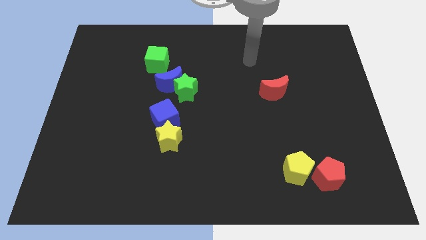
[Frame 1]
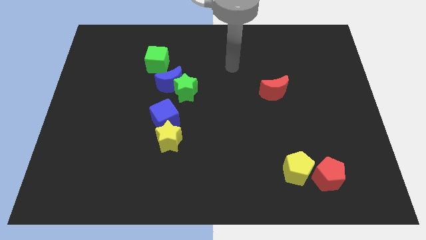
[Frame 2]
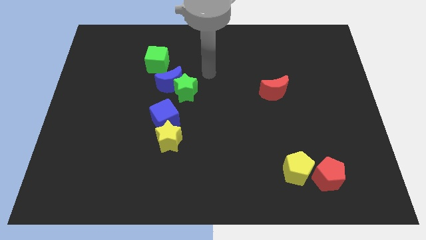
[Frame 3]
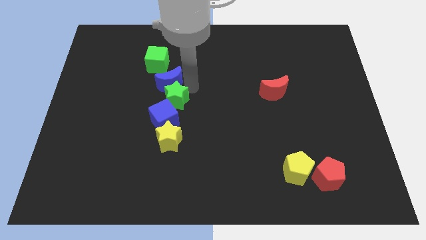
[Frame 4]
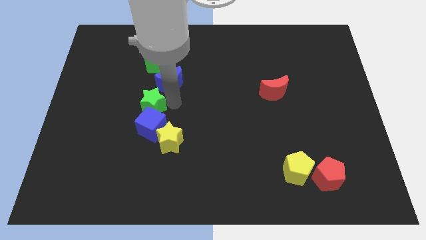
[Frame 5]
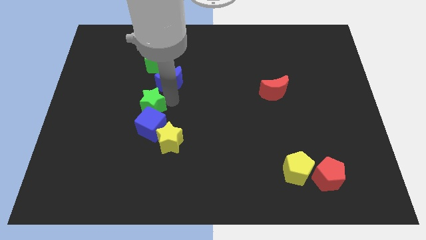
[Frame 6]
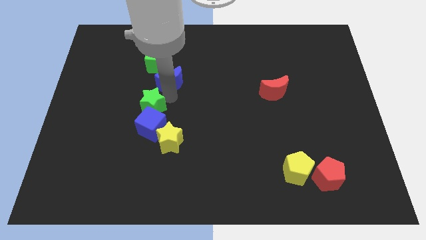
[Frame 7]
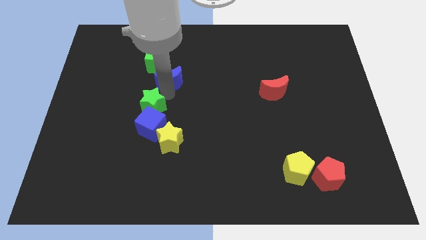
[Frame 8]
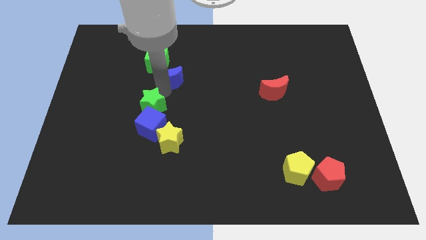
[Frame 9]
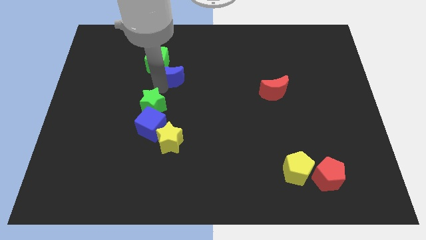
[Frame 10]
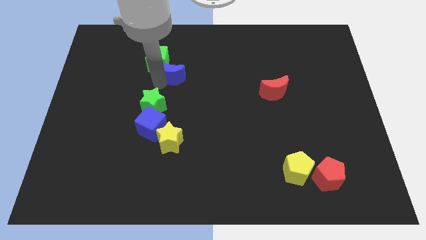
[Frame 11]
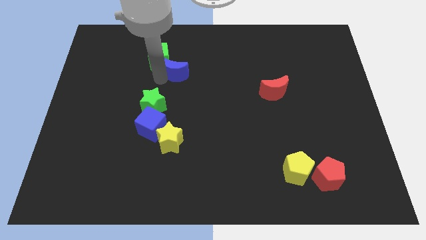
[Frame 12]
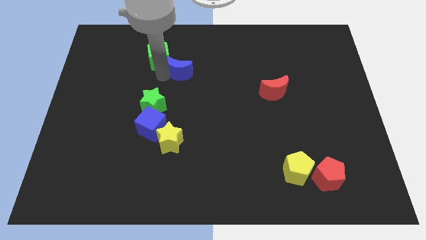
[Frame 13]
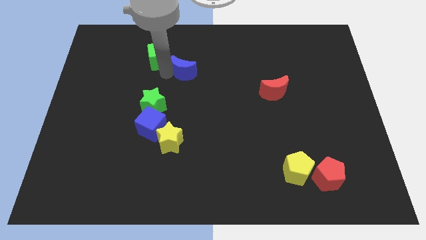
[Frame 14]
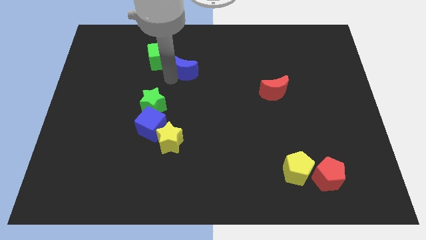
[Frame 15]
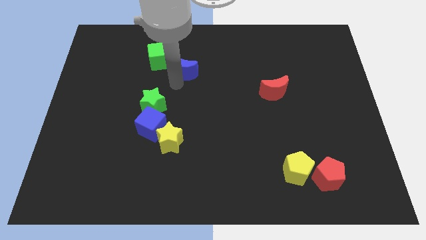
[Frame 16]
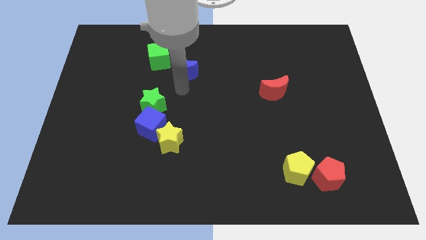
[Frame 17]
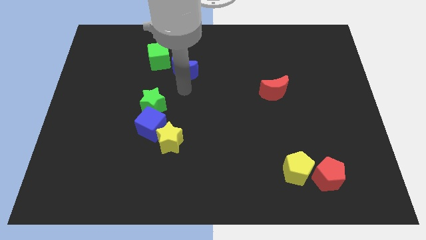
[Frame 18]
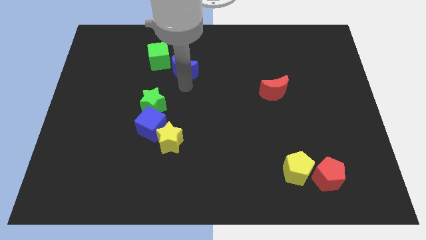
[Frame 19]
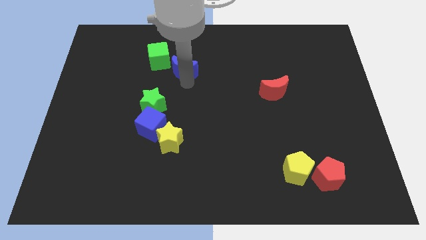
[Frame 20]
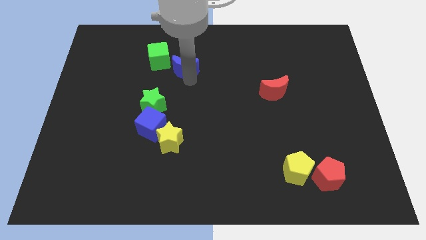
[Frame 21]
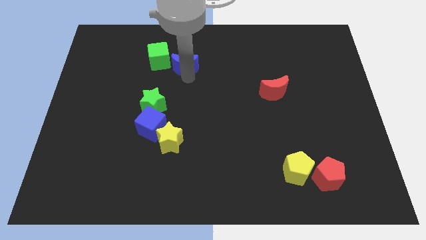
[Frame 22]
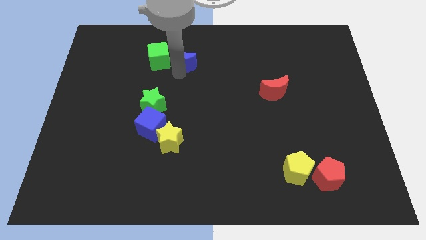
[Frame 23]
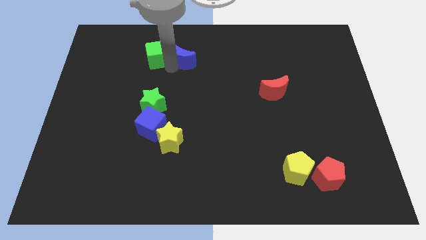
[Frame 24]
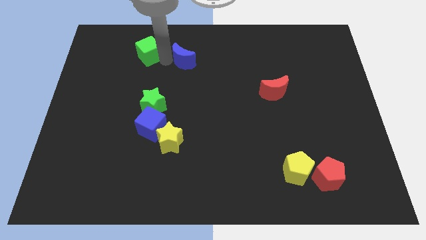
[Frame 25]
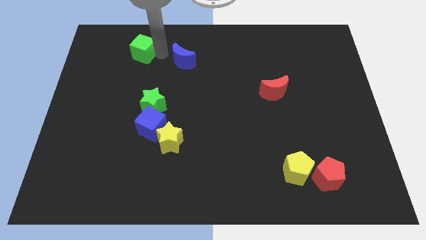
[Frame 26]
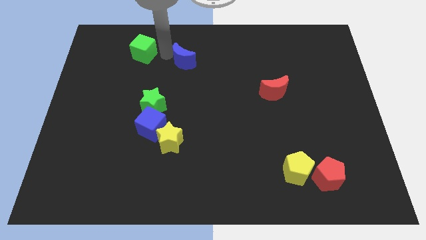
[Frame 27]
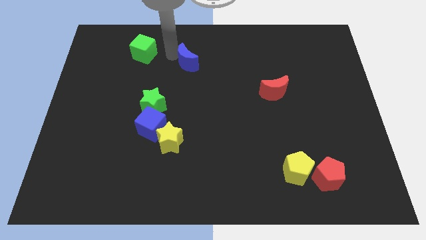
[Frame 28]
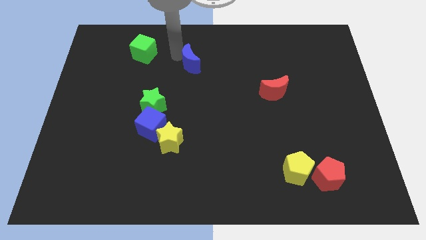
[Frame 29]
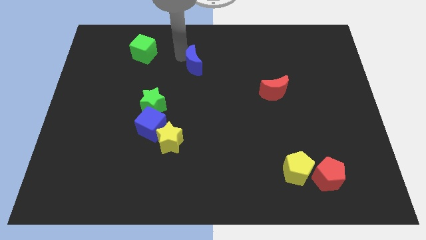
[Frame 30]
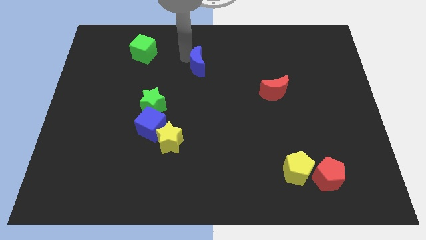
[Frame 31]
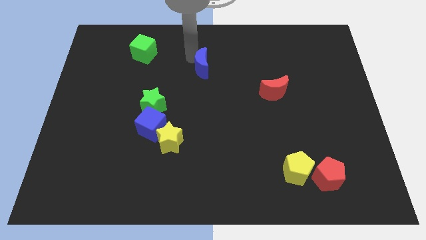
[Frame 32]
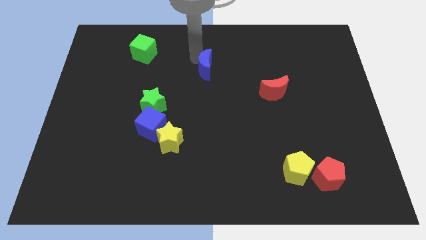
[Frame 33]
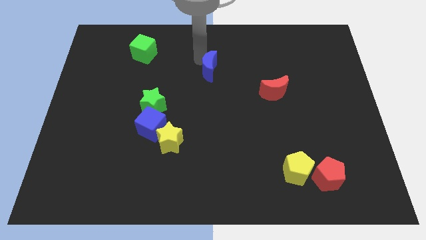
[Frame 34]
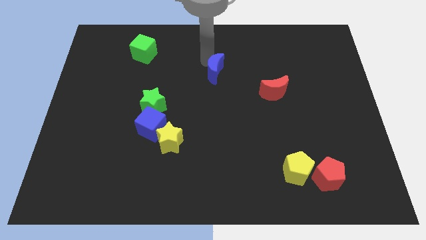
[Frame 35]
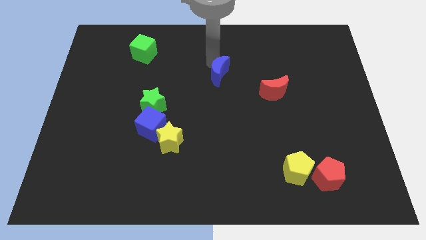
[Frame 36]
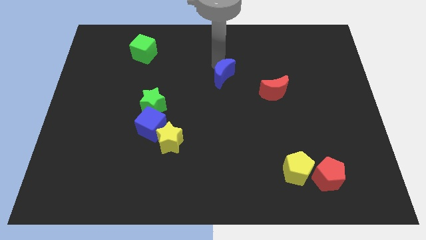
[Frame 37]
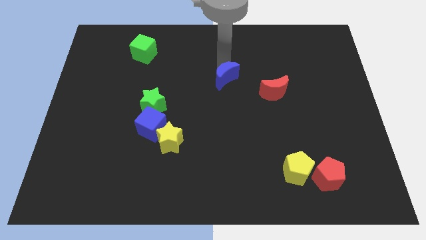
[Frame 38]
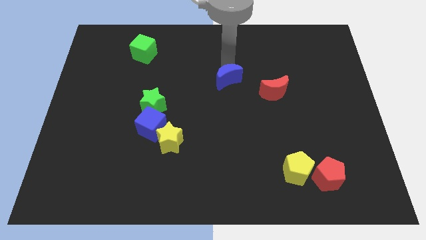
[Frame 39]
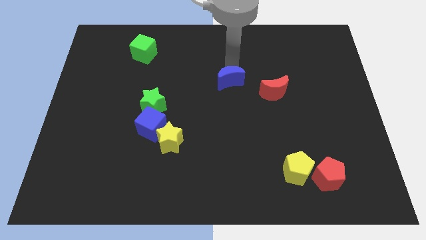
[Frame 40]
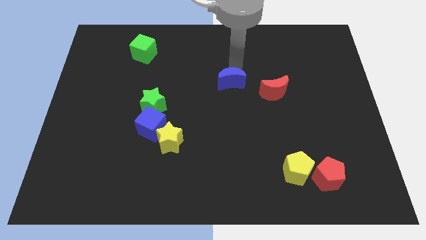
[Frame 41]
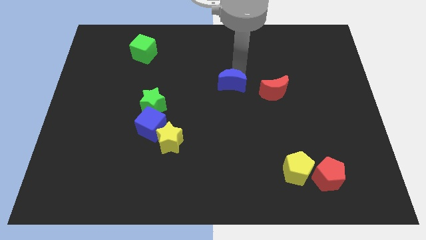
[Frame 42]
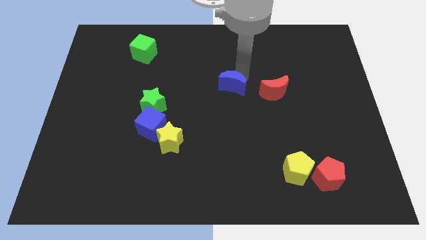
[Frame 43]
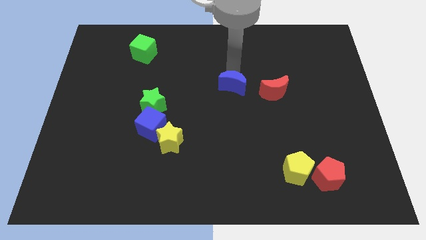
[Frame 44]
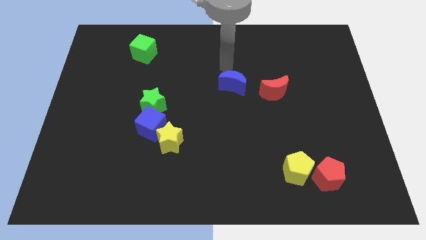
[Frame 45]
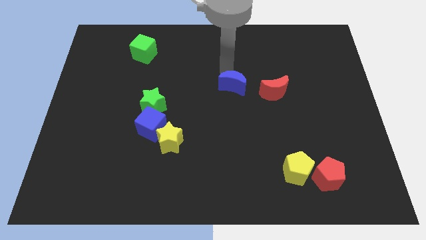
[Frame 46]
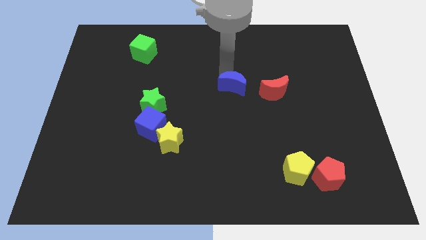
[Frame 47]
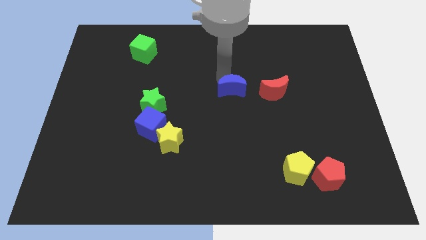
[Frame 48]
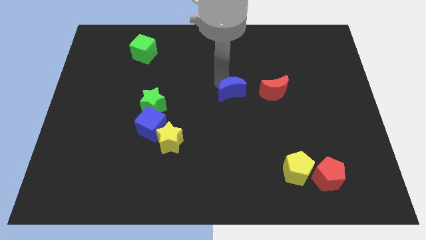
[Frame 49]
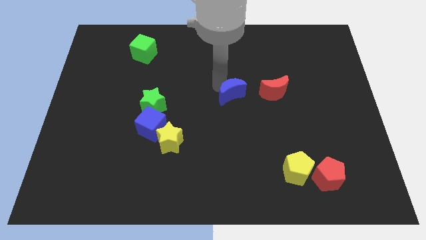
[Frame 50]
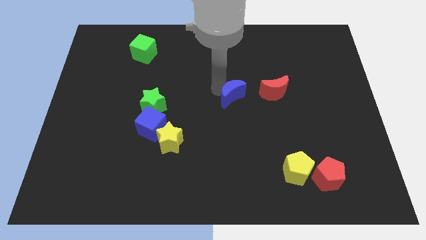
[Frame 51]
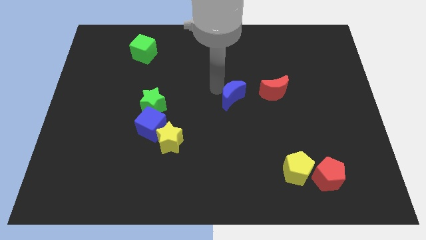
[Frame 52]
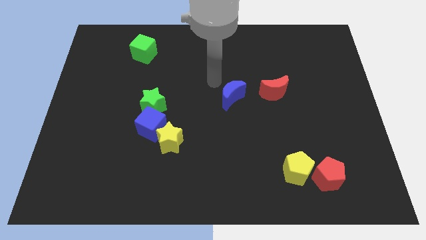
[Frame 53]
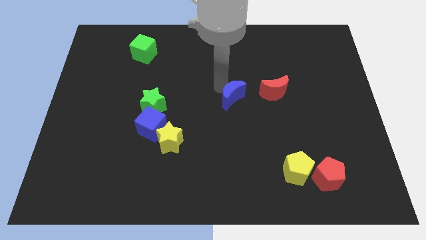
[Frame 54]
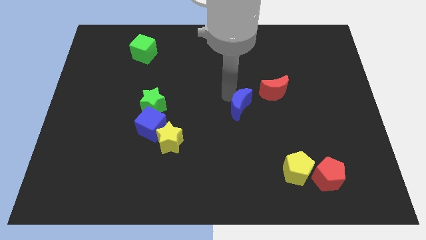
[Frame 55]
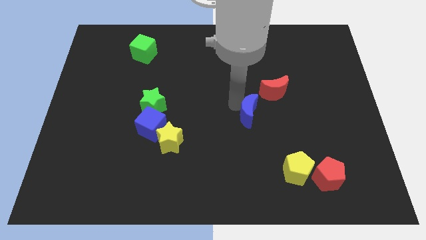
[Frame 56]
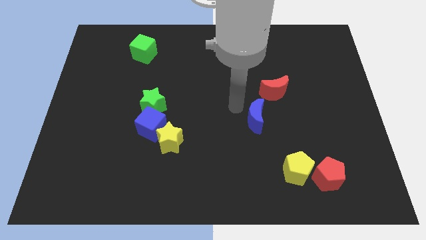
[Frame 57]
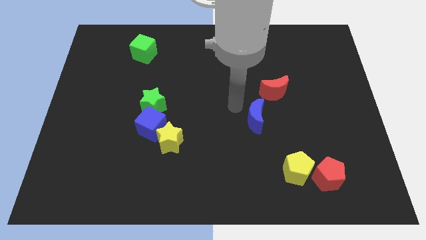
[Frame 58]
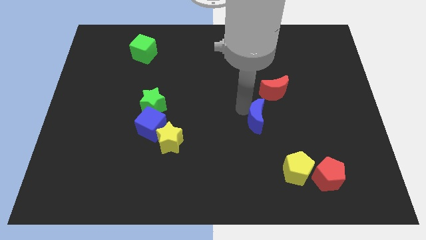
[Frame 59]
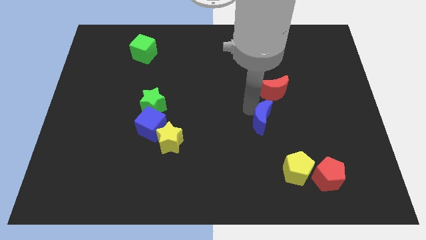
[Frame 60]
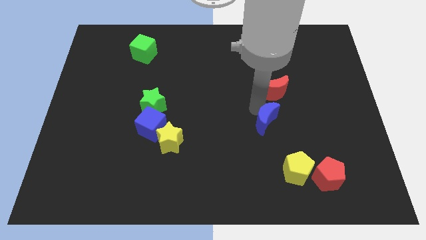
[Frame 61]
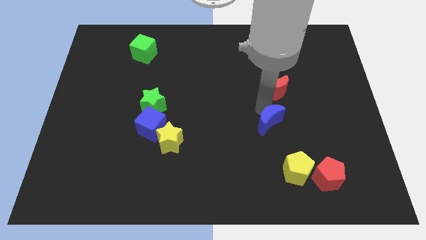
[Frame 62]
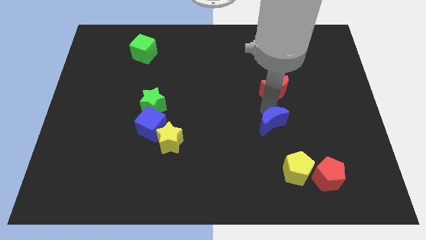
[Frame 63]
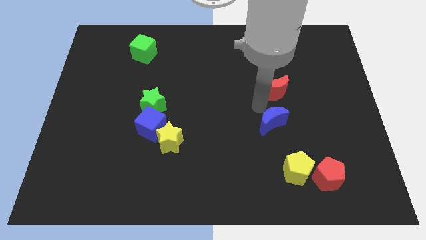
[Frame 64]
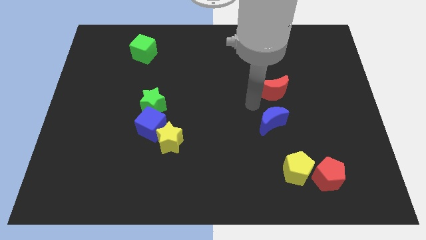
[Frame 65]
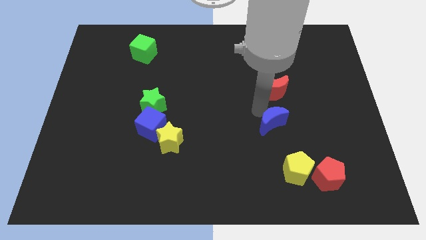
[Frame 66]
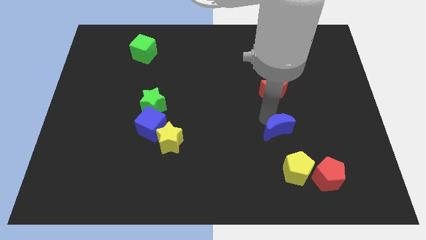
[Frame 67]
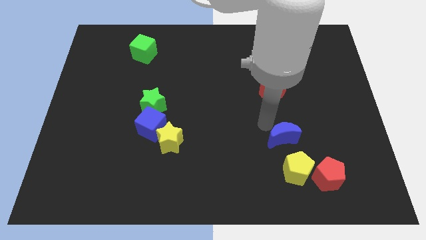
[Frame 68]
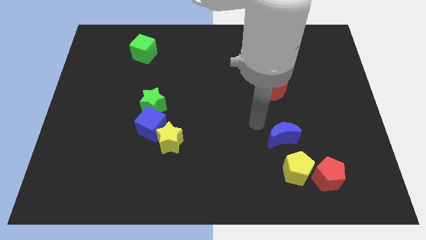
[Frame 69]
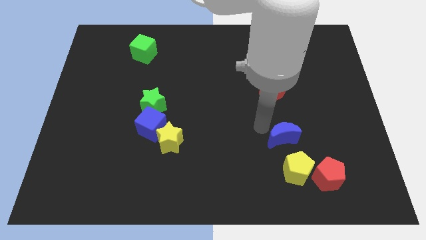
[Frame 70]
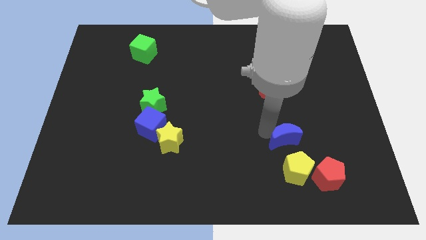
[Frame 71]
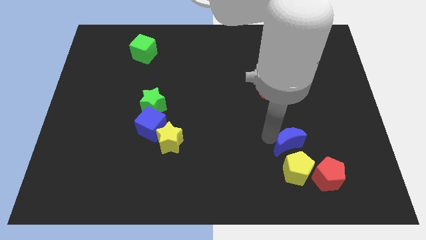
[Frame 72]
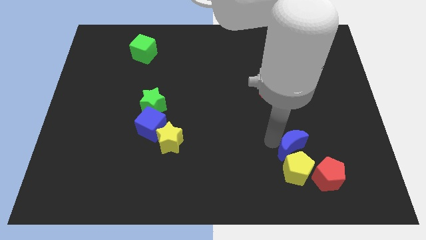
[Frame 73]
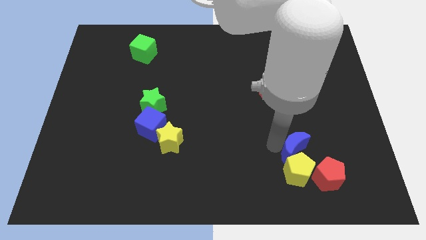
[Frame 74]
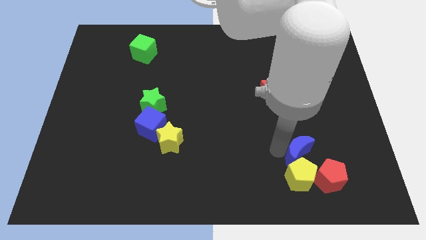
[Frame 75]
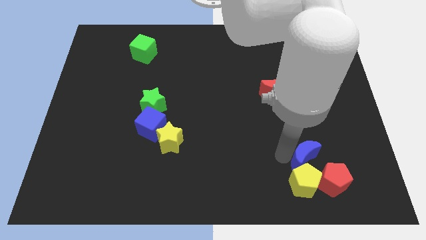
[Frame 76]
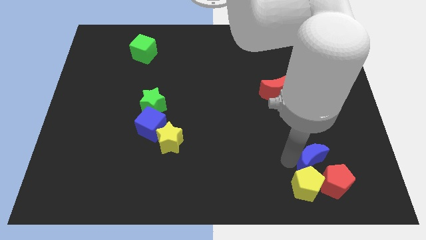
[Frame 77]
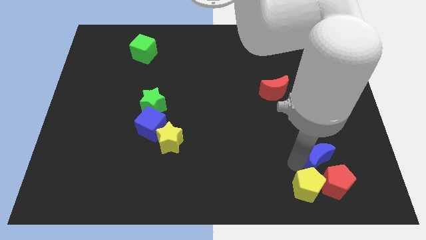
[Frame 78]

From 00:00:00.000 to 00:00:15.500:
slide the blue moon to the red pentagon

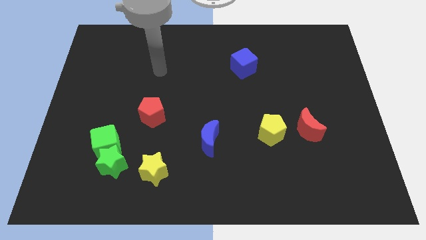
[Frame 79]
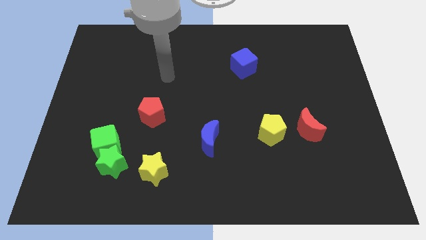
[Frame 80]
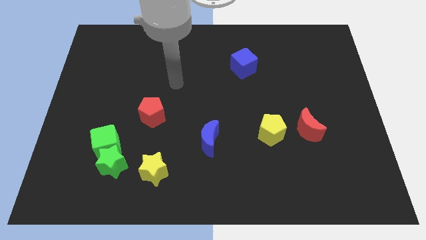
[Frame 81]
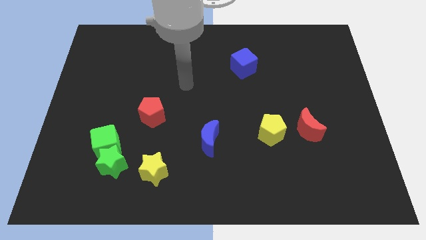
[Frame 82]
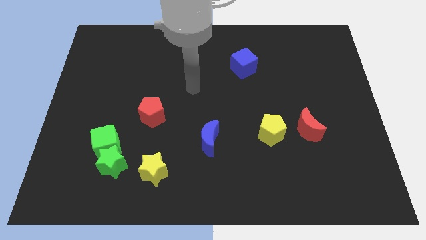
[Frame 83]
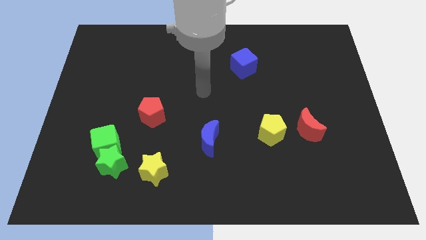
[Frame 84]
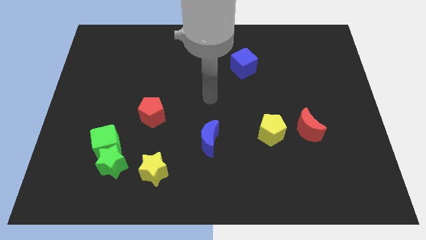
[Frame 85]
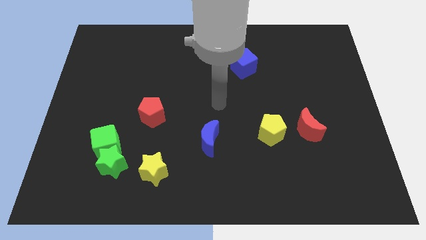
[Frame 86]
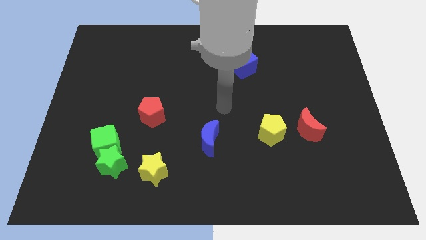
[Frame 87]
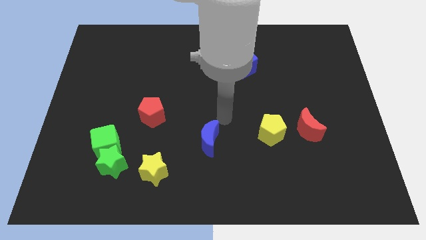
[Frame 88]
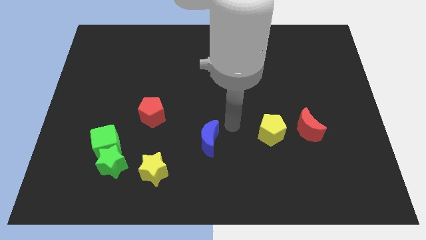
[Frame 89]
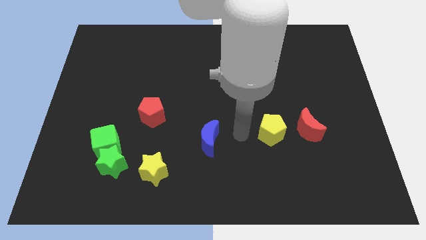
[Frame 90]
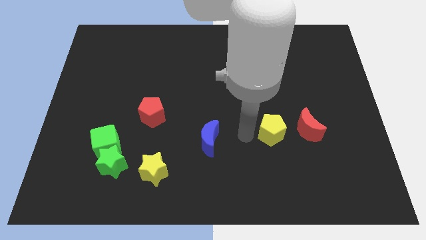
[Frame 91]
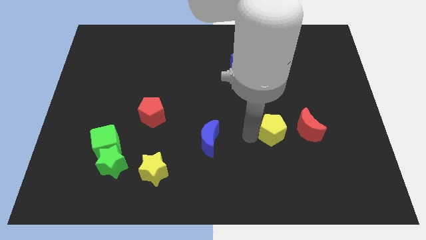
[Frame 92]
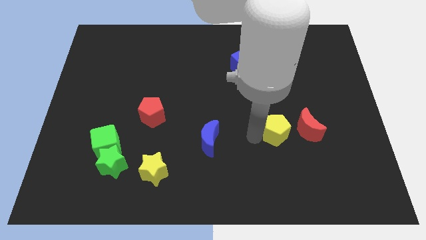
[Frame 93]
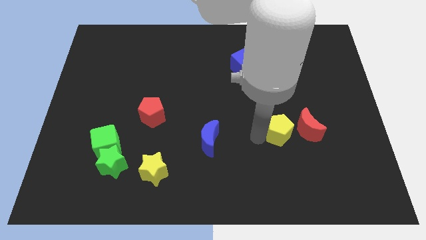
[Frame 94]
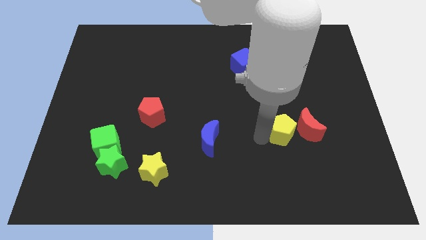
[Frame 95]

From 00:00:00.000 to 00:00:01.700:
slide the yellow pentagon next to the red moon
